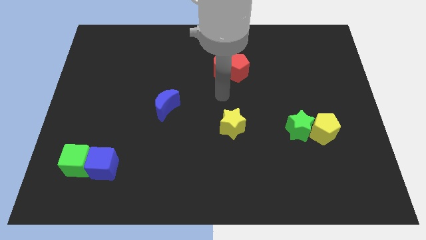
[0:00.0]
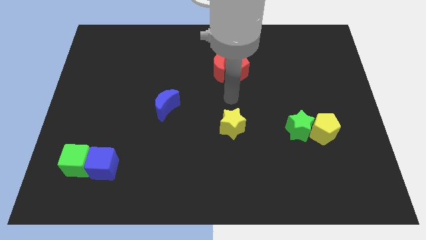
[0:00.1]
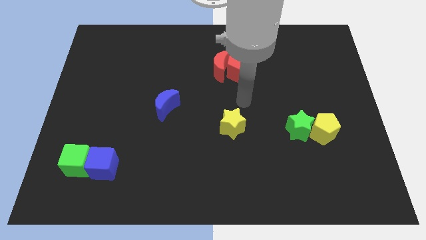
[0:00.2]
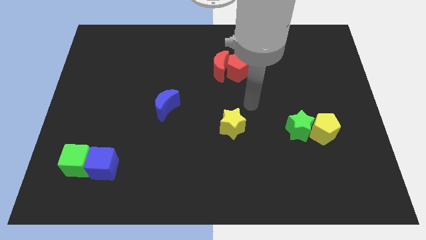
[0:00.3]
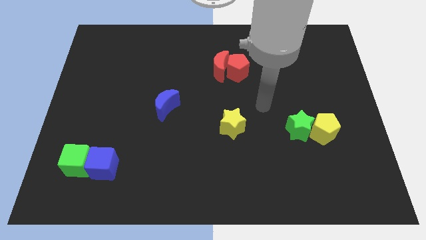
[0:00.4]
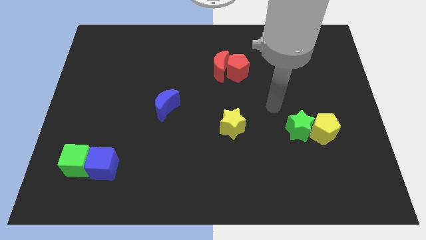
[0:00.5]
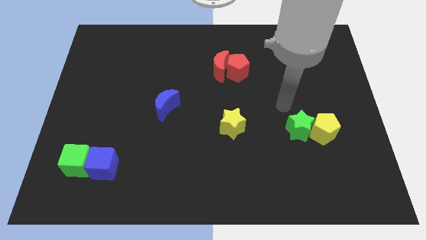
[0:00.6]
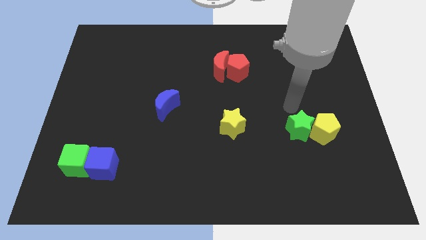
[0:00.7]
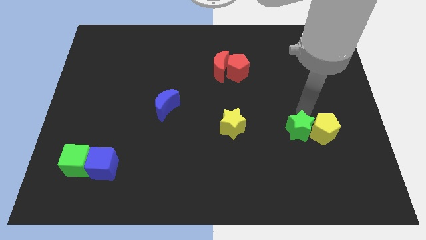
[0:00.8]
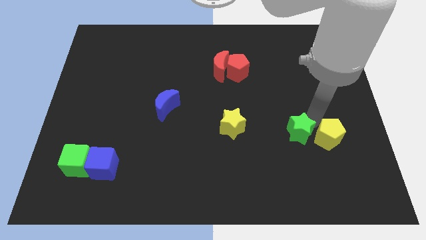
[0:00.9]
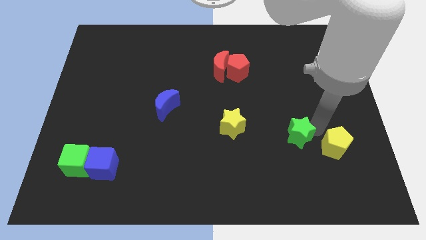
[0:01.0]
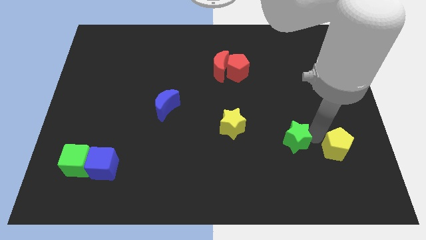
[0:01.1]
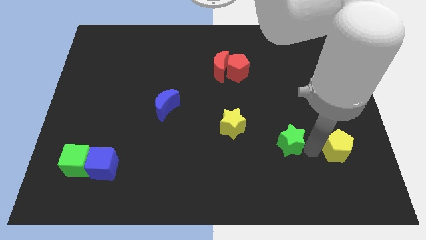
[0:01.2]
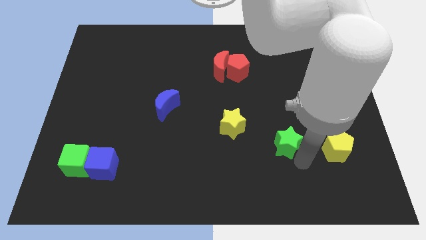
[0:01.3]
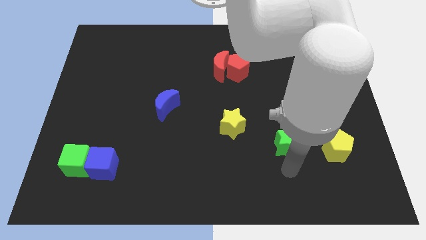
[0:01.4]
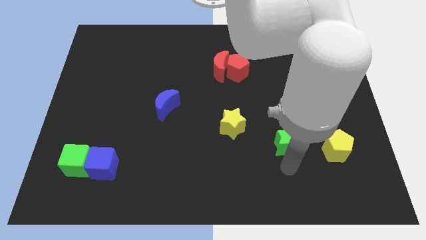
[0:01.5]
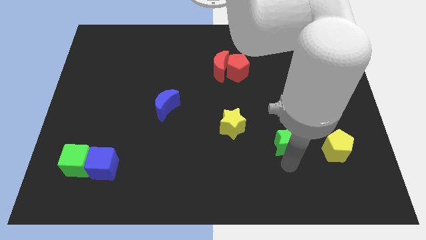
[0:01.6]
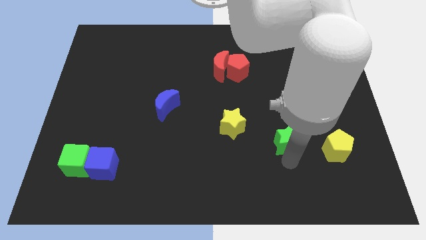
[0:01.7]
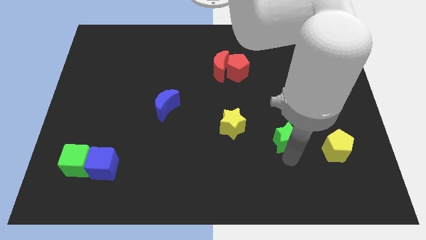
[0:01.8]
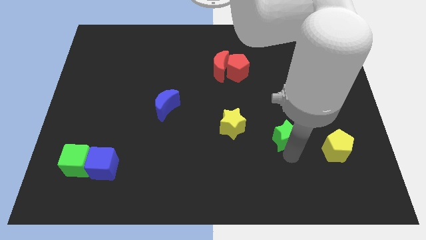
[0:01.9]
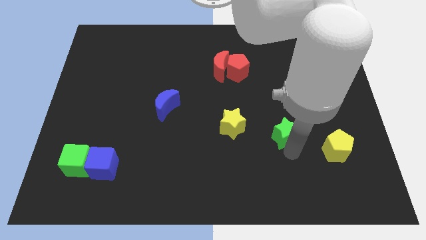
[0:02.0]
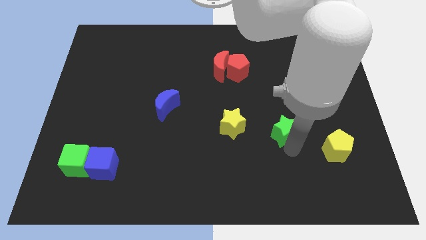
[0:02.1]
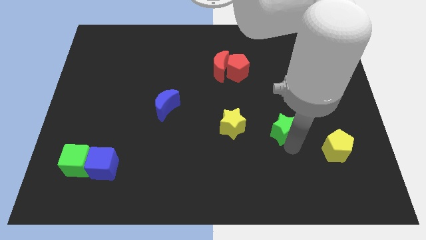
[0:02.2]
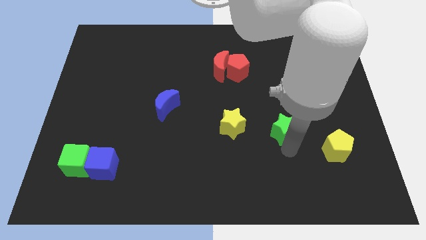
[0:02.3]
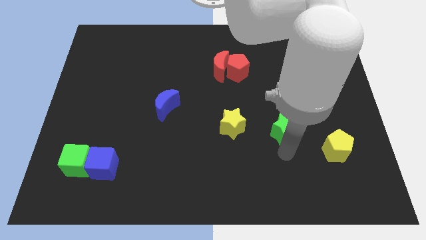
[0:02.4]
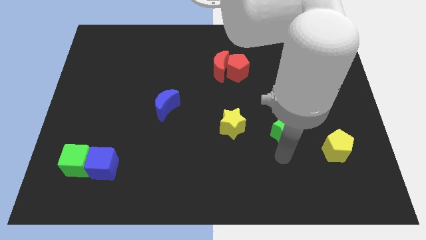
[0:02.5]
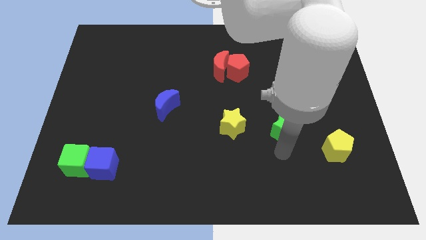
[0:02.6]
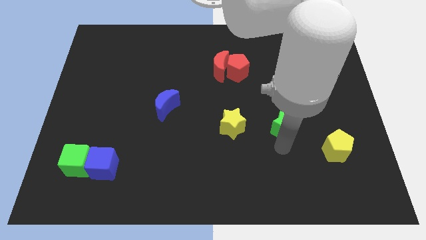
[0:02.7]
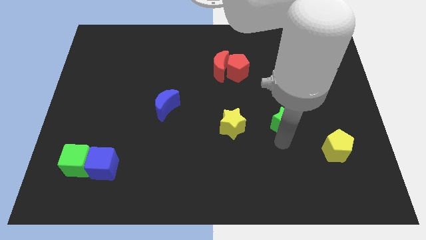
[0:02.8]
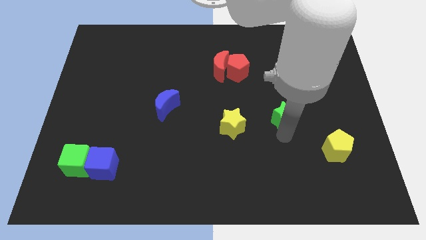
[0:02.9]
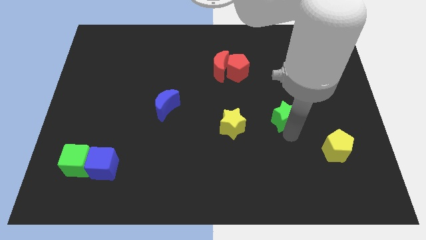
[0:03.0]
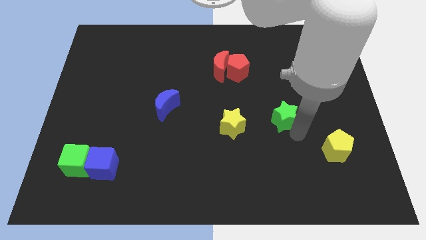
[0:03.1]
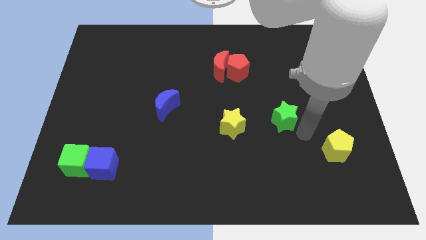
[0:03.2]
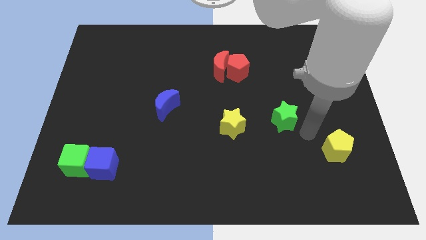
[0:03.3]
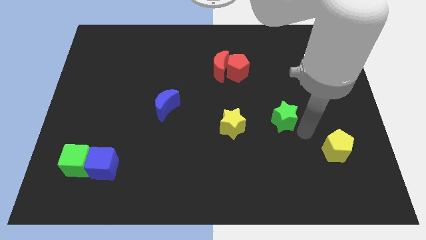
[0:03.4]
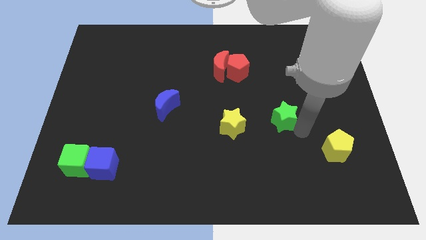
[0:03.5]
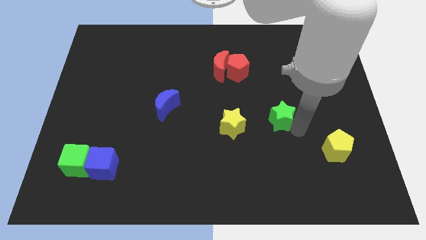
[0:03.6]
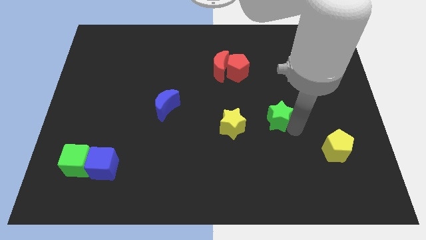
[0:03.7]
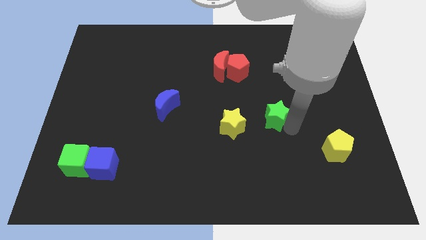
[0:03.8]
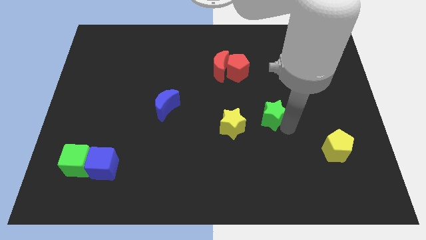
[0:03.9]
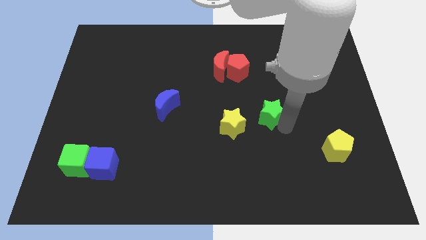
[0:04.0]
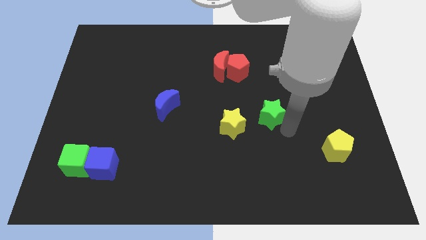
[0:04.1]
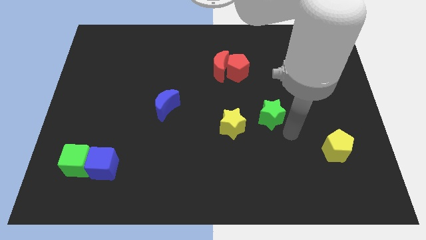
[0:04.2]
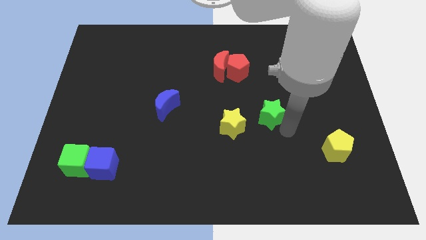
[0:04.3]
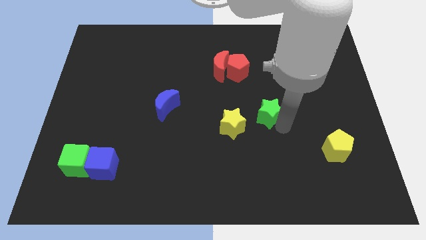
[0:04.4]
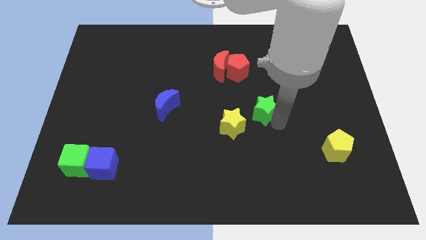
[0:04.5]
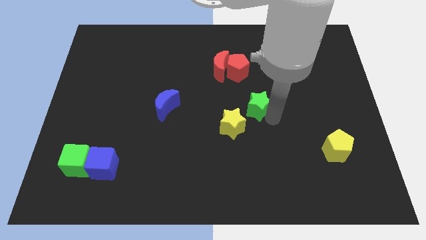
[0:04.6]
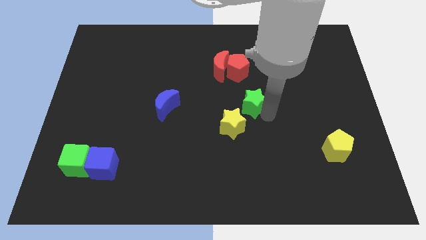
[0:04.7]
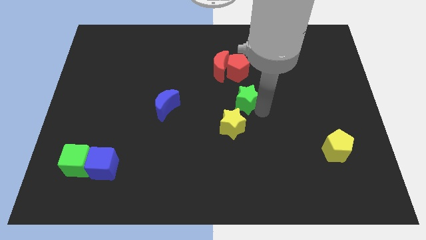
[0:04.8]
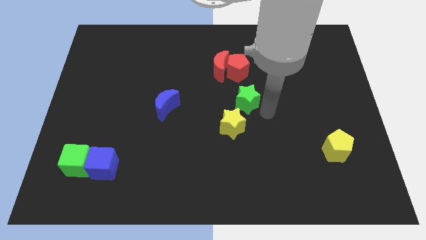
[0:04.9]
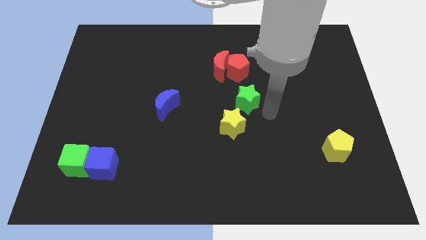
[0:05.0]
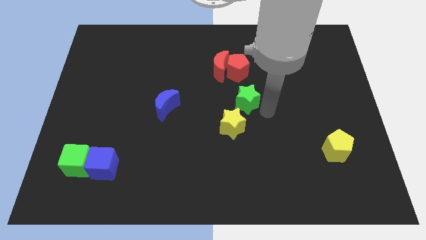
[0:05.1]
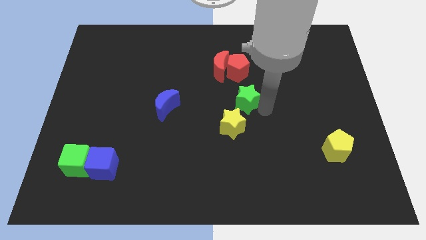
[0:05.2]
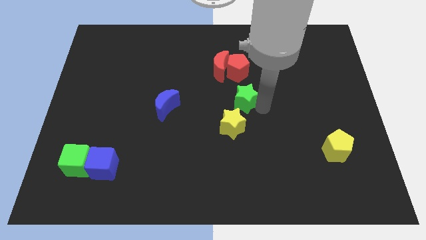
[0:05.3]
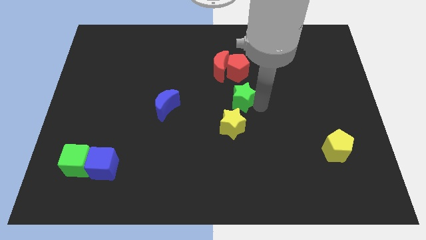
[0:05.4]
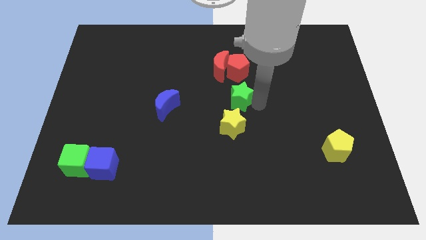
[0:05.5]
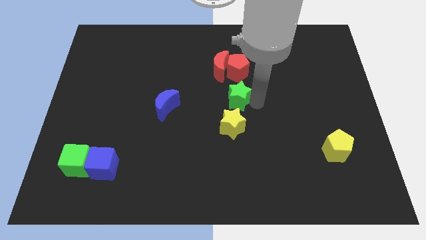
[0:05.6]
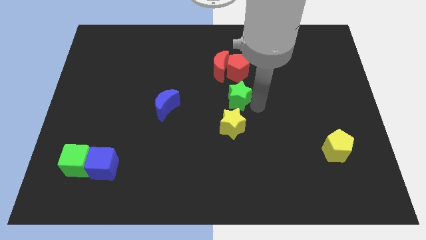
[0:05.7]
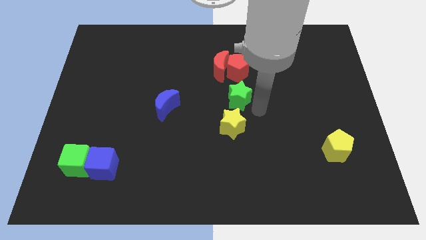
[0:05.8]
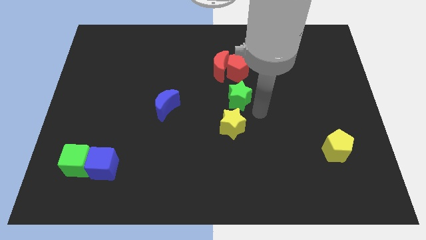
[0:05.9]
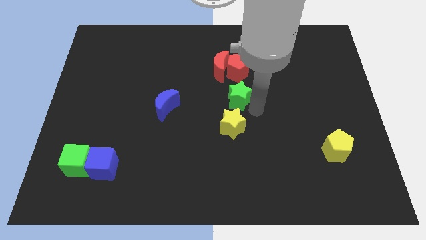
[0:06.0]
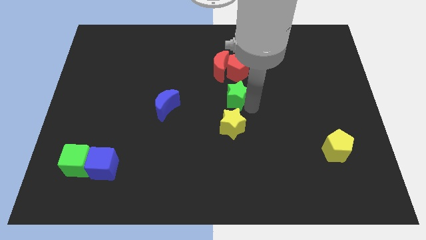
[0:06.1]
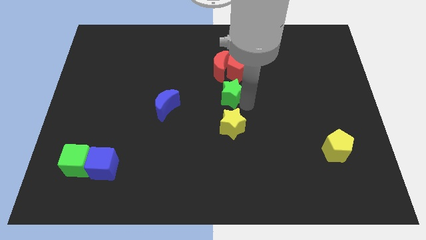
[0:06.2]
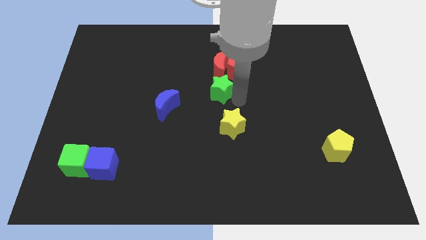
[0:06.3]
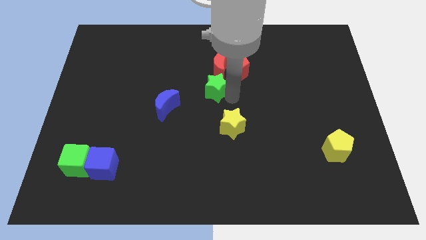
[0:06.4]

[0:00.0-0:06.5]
move the green star up and then left

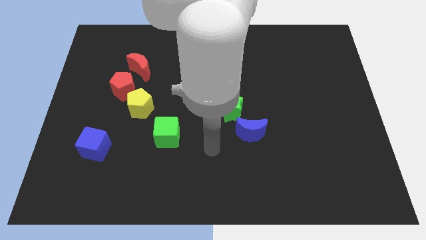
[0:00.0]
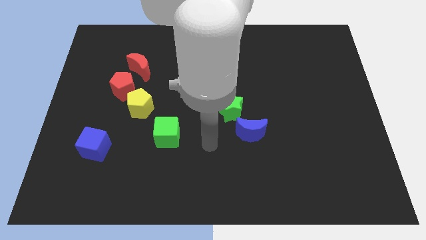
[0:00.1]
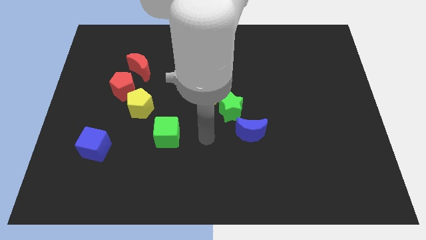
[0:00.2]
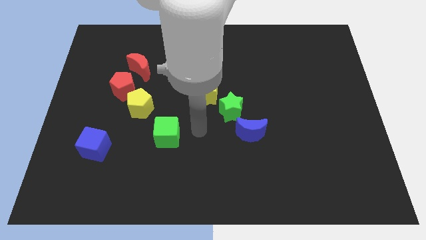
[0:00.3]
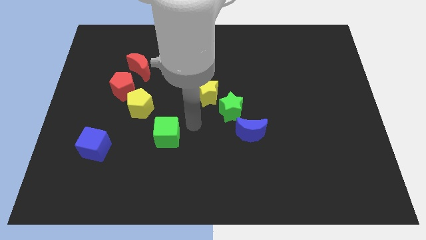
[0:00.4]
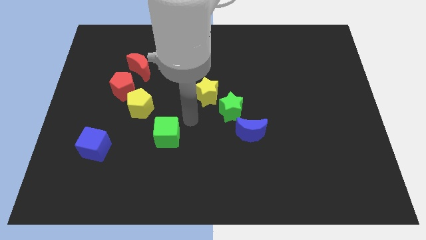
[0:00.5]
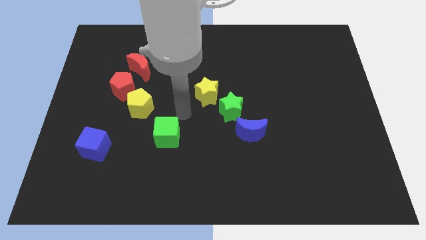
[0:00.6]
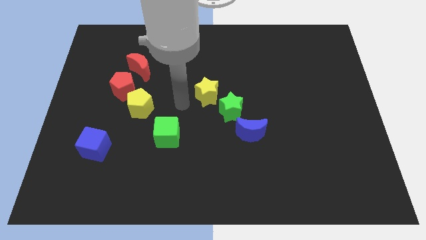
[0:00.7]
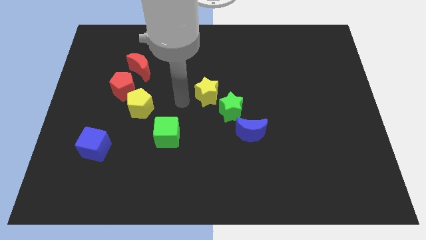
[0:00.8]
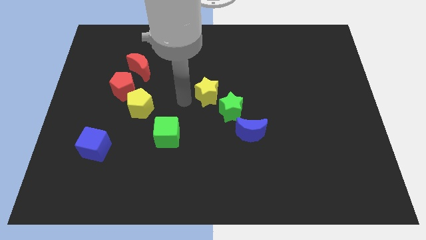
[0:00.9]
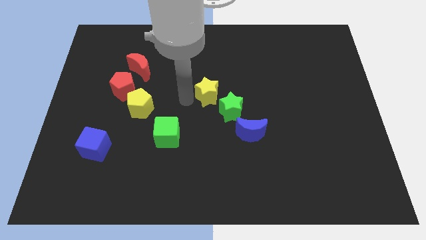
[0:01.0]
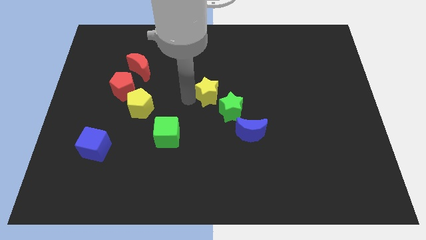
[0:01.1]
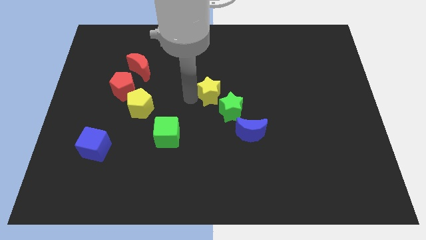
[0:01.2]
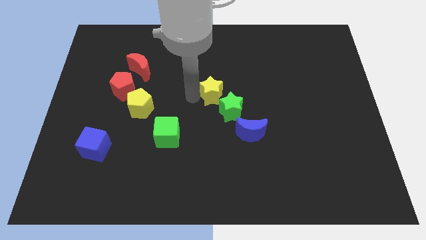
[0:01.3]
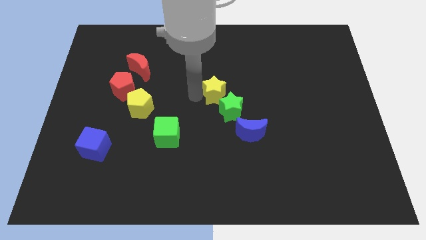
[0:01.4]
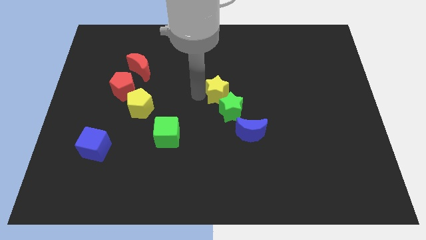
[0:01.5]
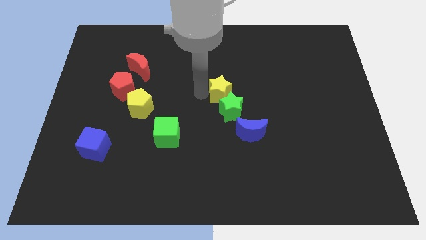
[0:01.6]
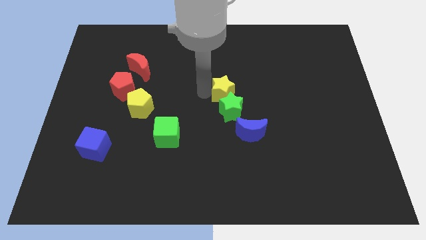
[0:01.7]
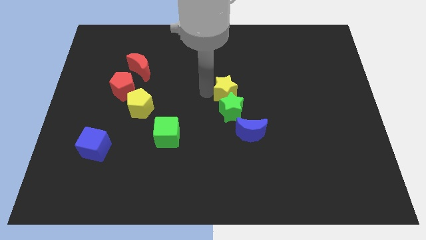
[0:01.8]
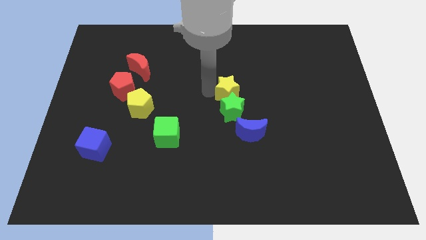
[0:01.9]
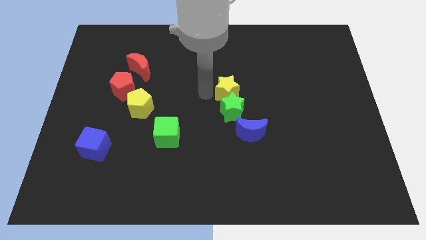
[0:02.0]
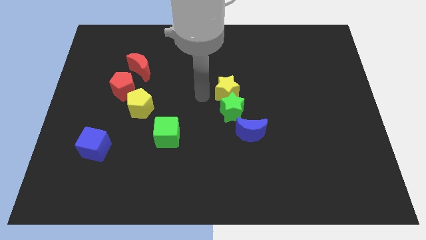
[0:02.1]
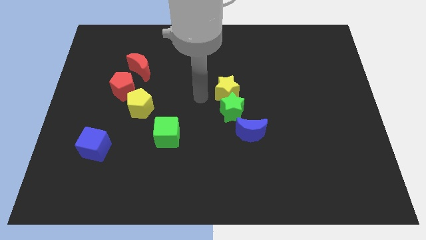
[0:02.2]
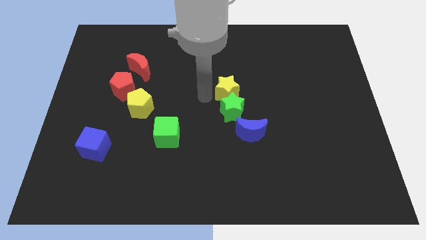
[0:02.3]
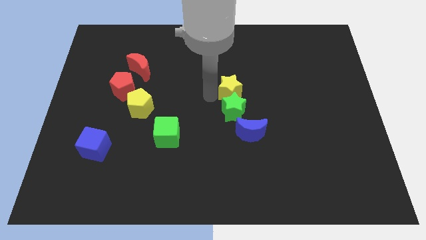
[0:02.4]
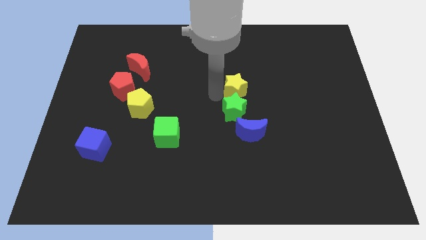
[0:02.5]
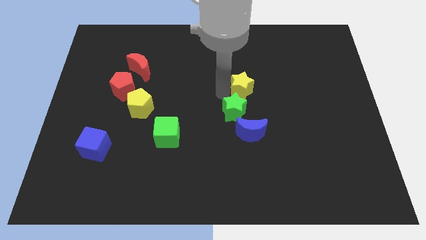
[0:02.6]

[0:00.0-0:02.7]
push the yellow star right a little bit
